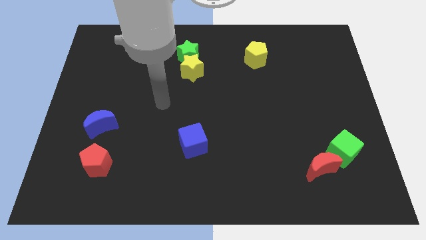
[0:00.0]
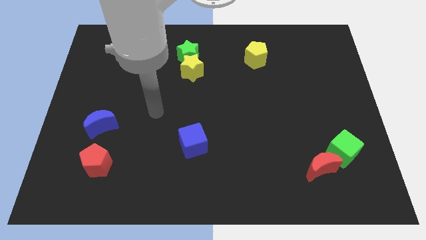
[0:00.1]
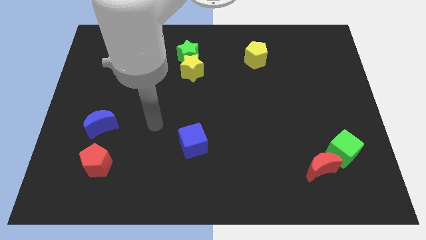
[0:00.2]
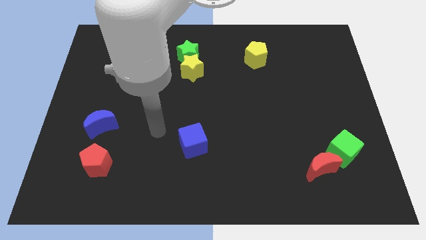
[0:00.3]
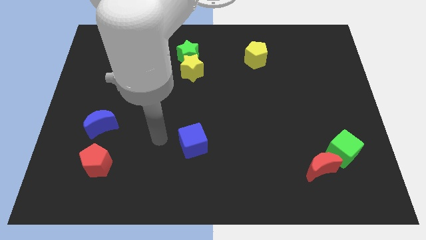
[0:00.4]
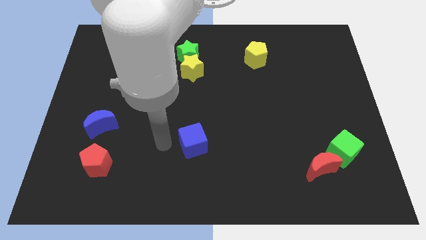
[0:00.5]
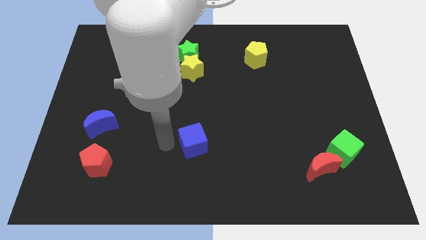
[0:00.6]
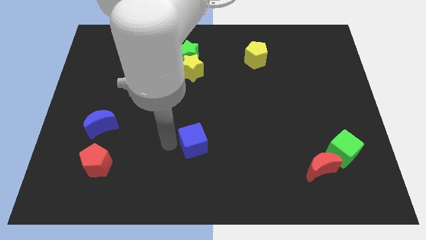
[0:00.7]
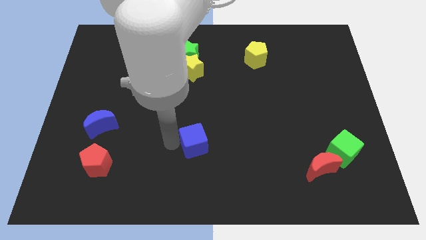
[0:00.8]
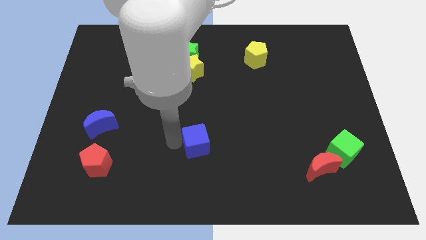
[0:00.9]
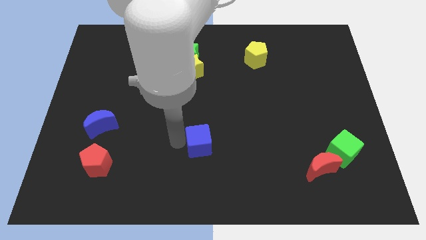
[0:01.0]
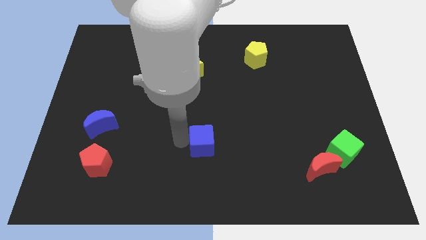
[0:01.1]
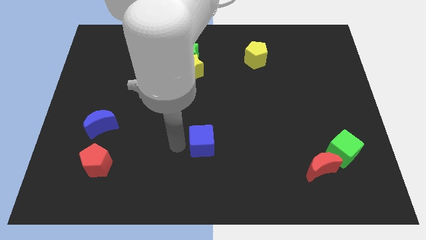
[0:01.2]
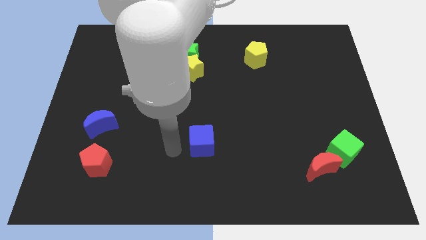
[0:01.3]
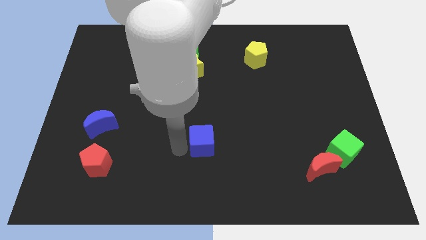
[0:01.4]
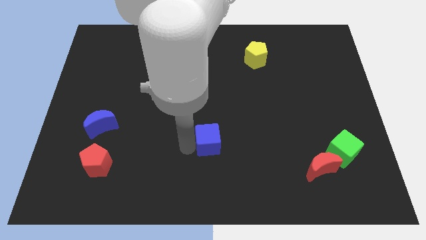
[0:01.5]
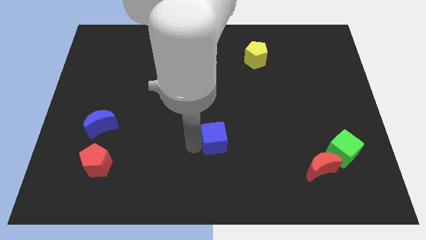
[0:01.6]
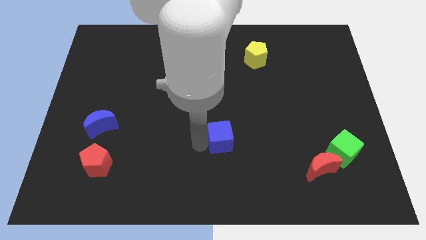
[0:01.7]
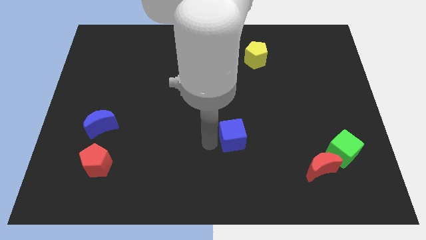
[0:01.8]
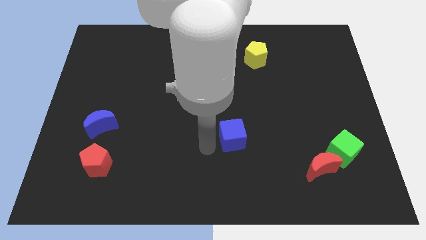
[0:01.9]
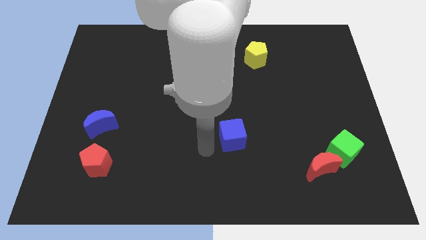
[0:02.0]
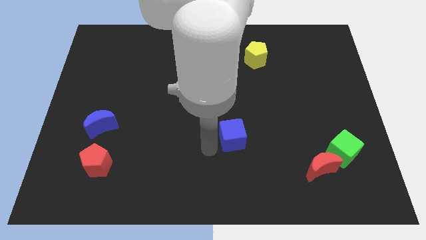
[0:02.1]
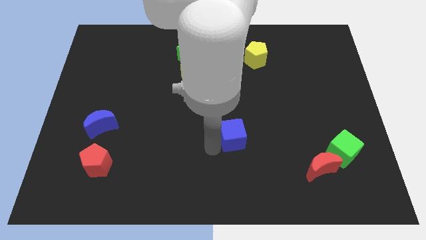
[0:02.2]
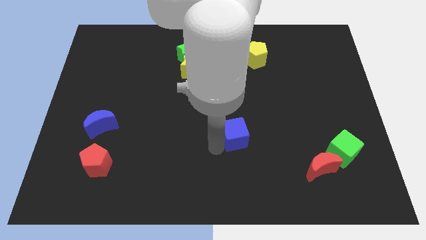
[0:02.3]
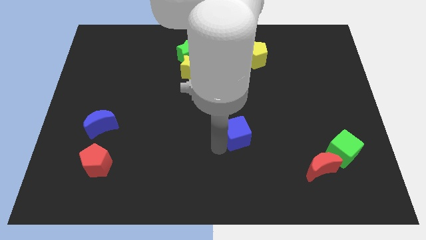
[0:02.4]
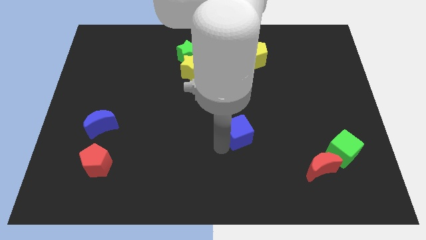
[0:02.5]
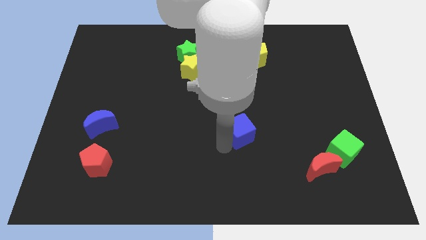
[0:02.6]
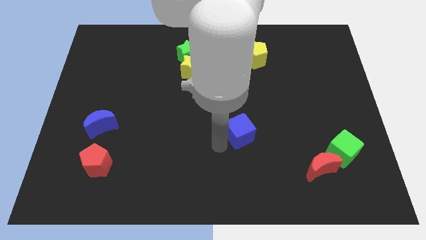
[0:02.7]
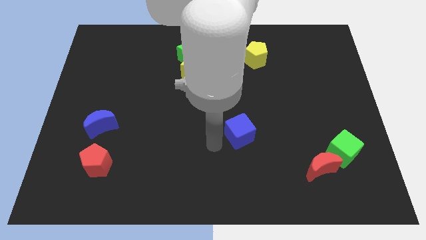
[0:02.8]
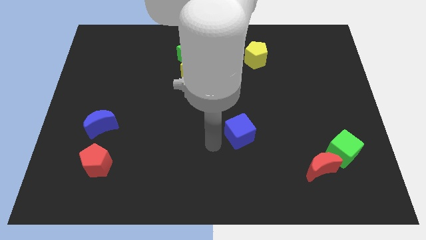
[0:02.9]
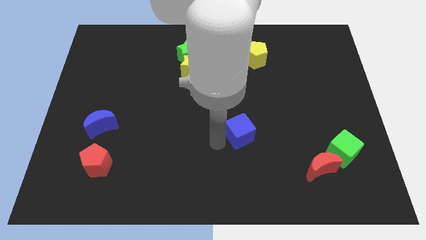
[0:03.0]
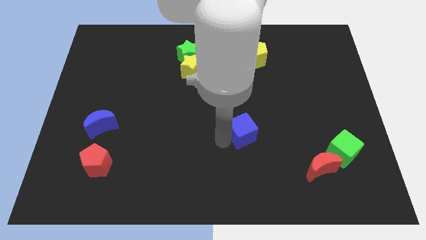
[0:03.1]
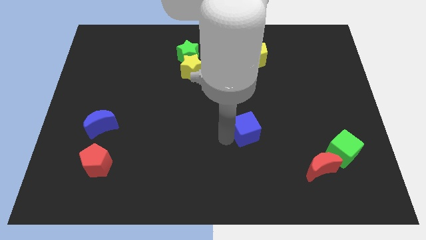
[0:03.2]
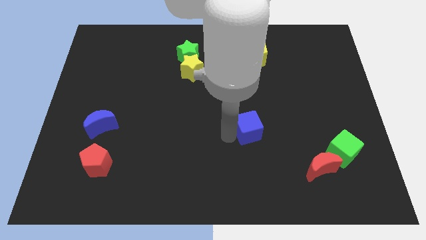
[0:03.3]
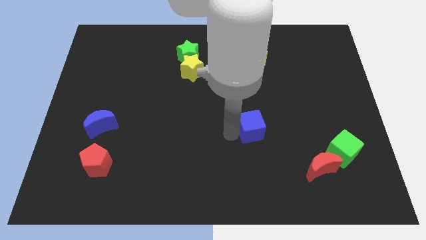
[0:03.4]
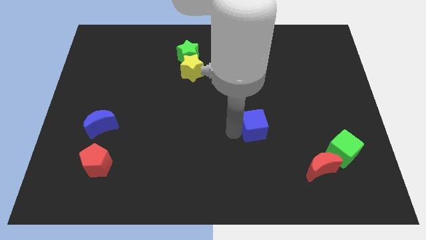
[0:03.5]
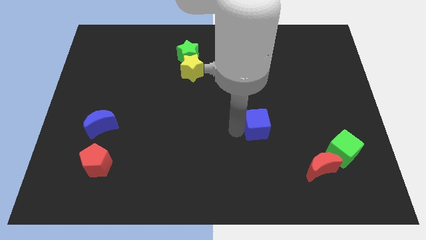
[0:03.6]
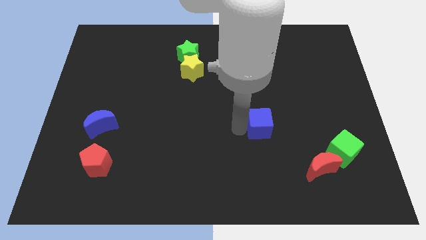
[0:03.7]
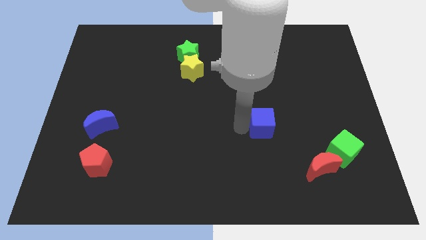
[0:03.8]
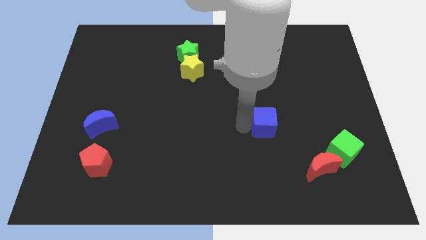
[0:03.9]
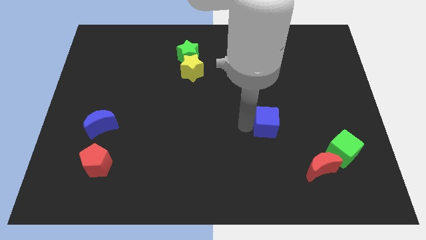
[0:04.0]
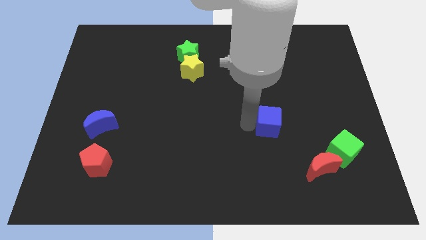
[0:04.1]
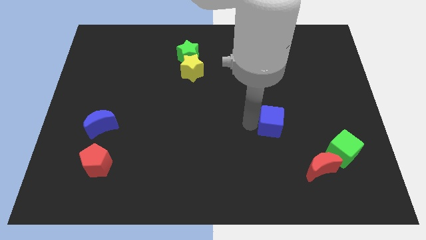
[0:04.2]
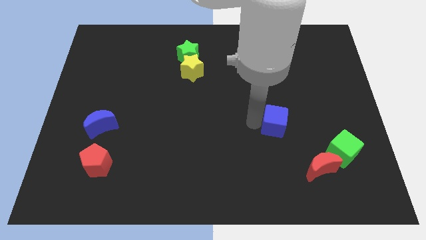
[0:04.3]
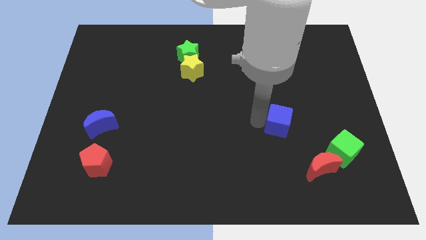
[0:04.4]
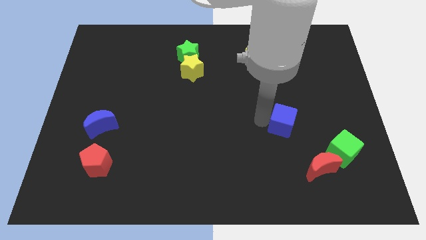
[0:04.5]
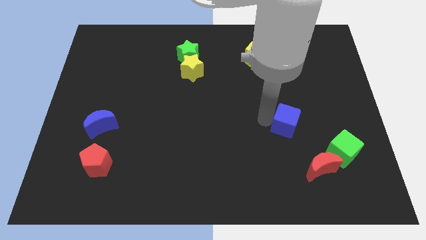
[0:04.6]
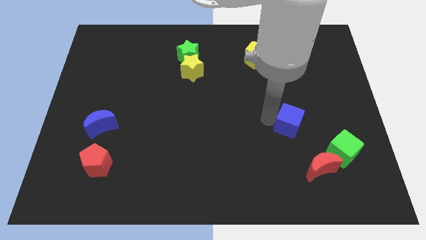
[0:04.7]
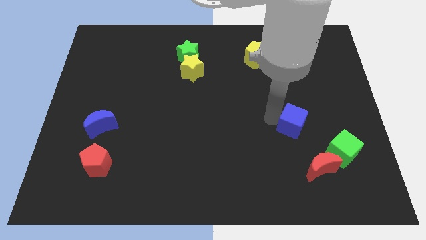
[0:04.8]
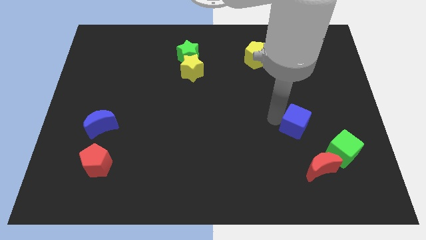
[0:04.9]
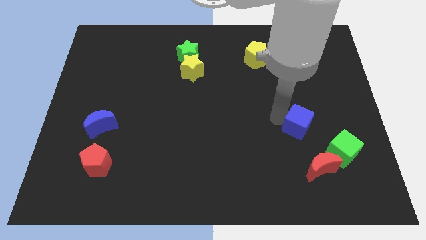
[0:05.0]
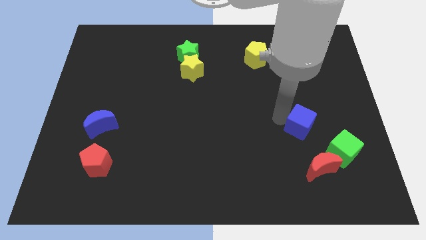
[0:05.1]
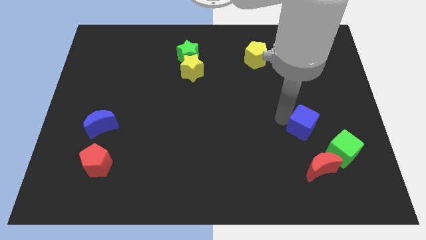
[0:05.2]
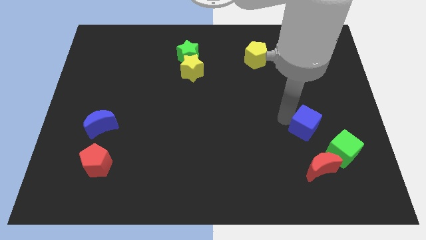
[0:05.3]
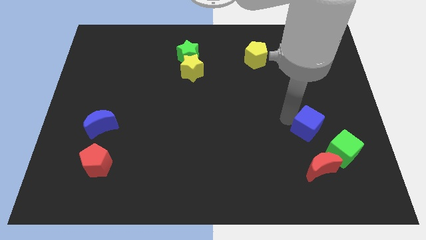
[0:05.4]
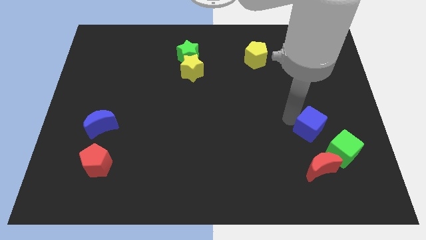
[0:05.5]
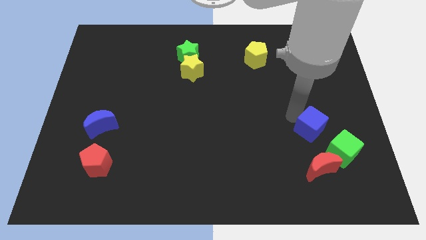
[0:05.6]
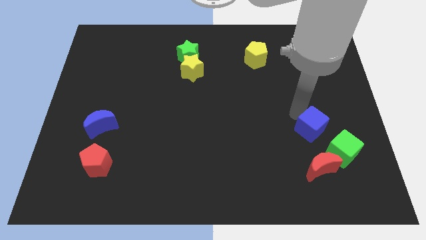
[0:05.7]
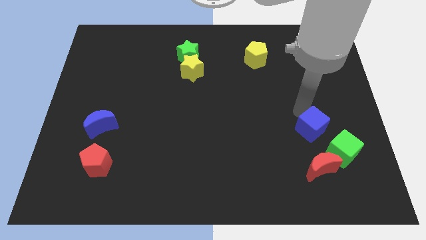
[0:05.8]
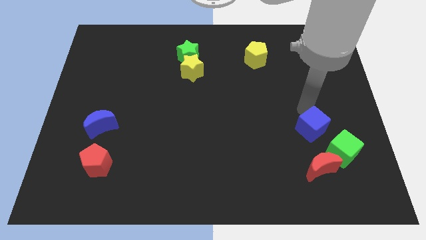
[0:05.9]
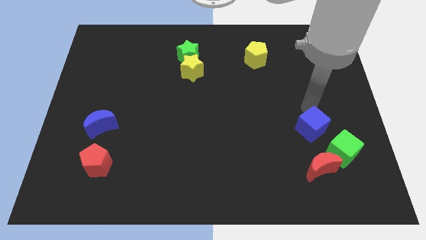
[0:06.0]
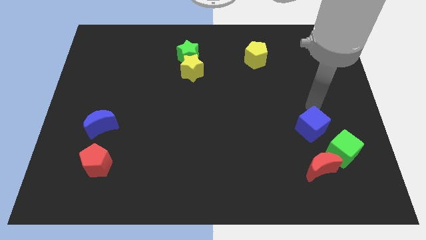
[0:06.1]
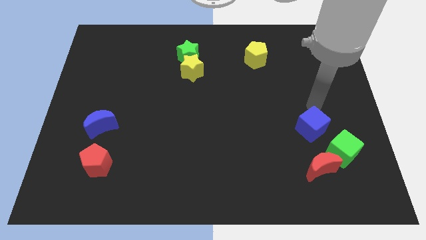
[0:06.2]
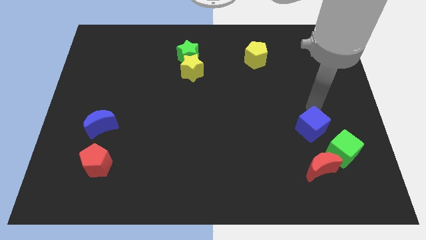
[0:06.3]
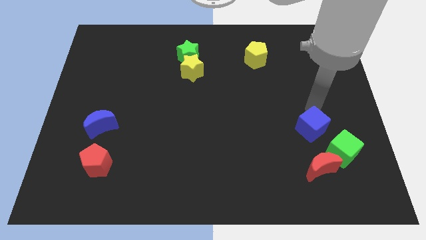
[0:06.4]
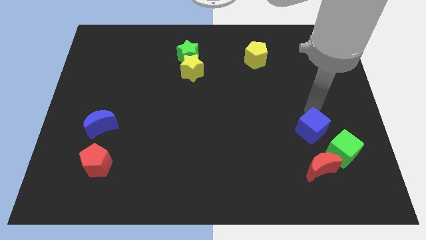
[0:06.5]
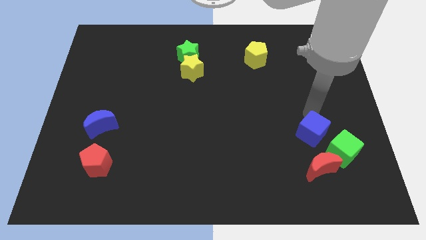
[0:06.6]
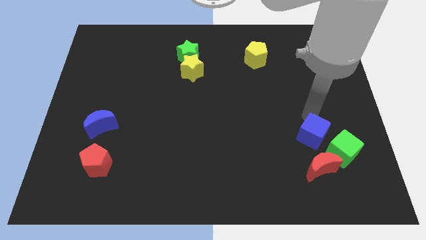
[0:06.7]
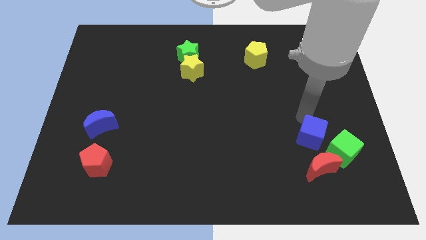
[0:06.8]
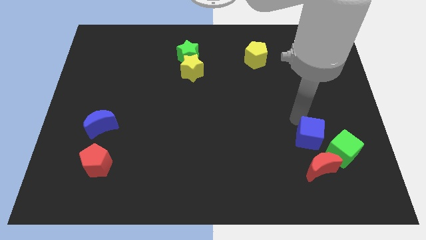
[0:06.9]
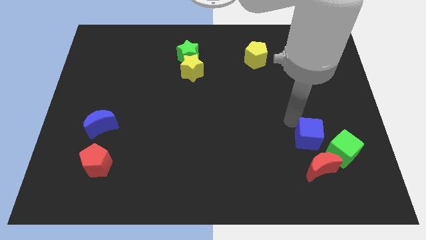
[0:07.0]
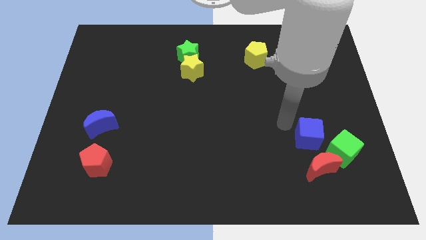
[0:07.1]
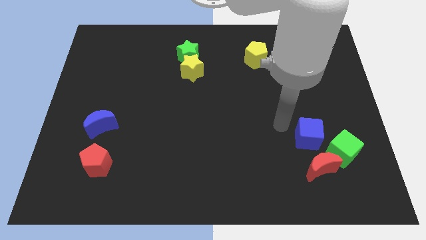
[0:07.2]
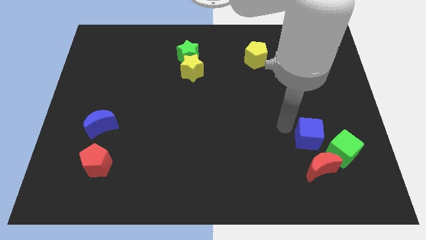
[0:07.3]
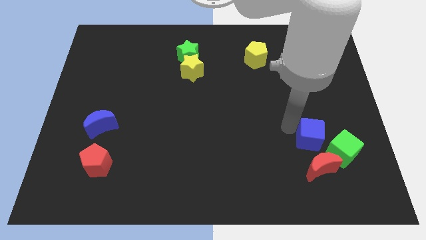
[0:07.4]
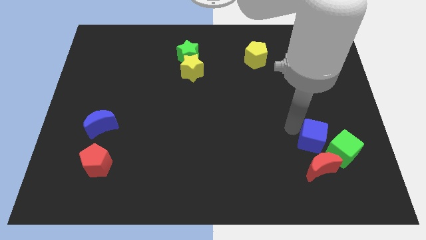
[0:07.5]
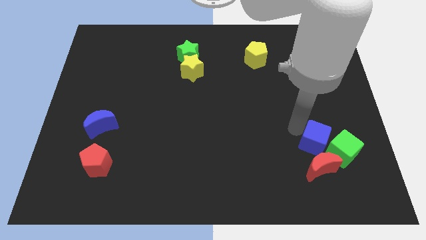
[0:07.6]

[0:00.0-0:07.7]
put the blue cube next to the green cube

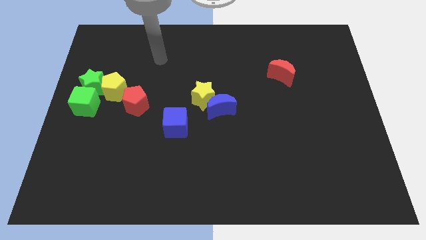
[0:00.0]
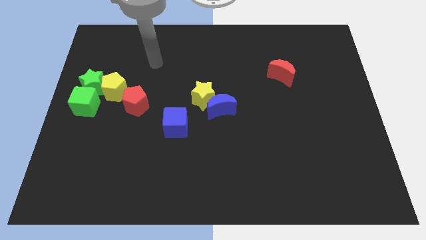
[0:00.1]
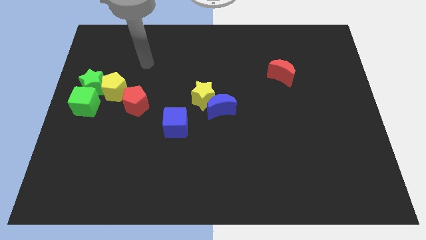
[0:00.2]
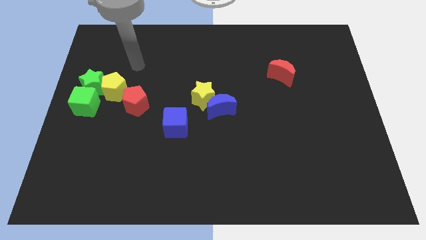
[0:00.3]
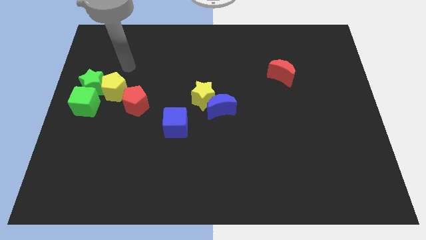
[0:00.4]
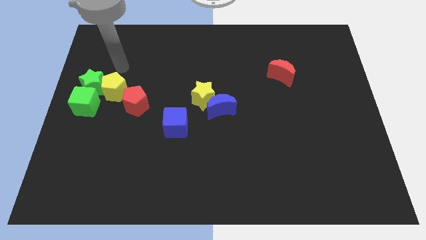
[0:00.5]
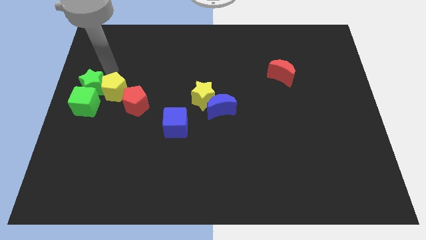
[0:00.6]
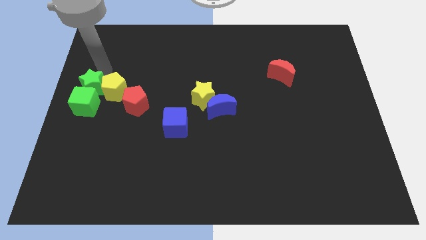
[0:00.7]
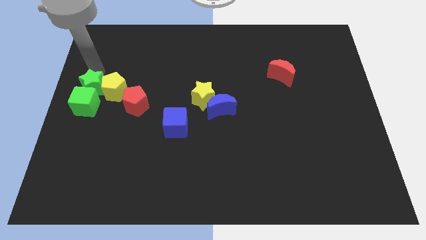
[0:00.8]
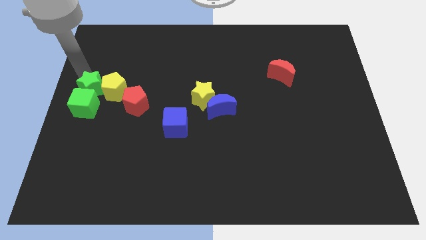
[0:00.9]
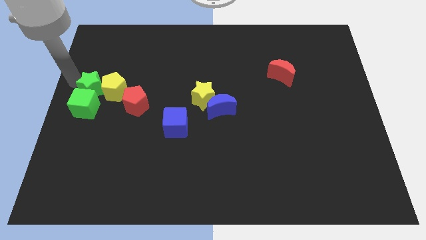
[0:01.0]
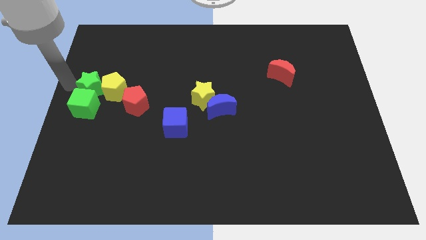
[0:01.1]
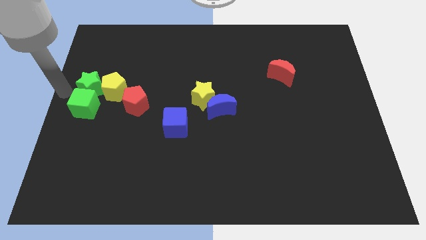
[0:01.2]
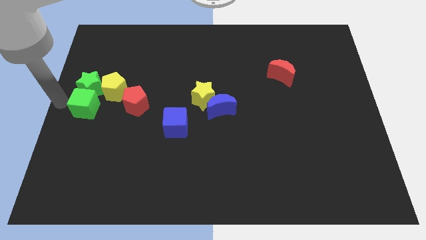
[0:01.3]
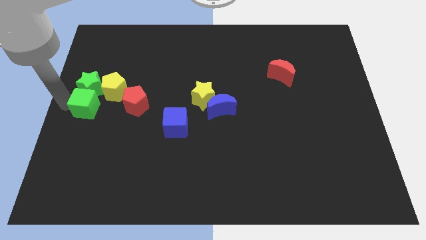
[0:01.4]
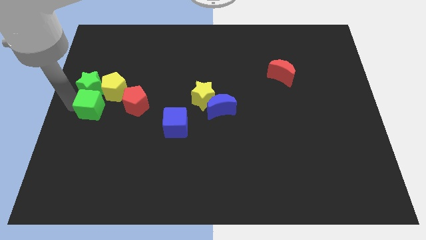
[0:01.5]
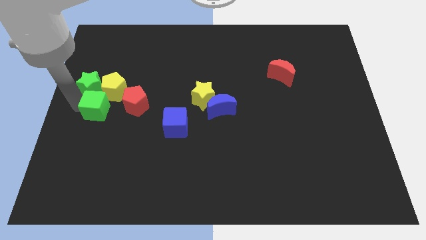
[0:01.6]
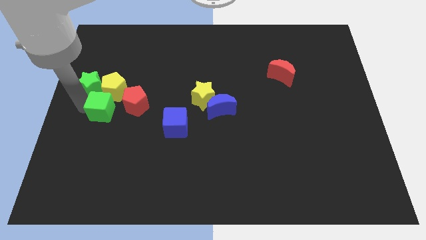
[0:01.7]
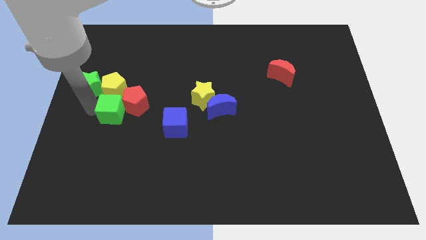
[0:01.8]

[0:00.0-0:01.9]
move the green cube towards the red pentagon
